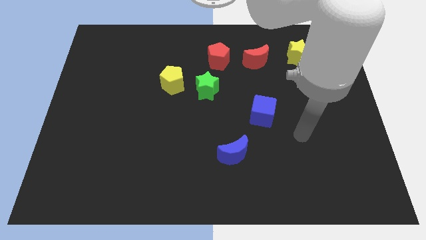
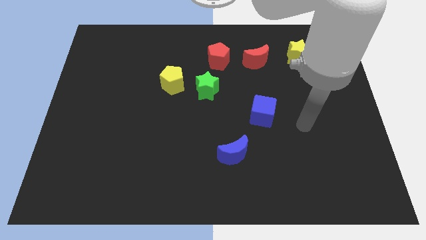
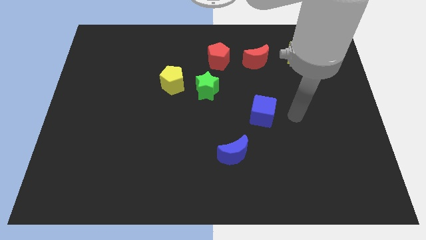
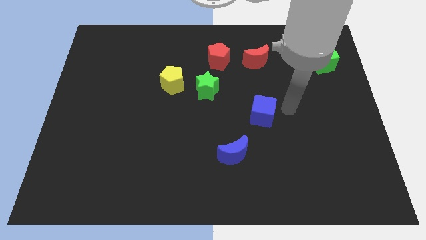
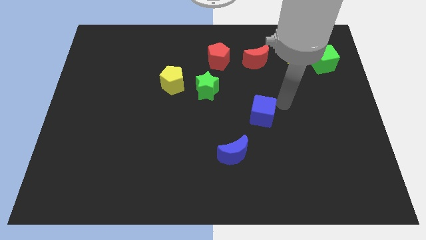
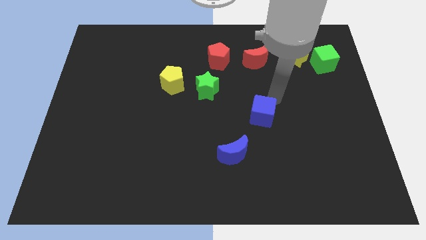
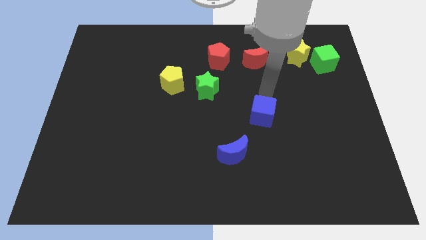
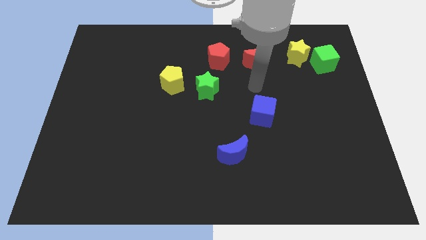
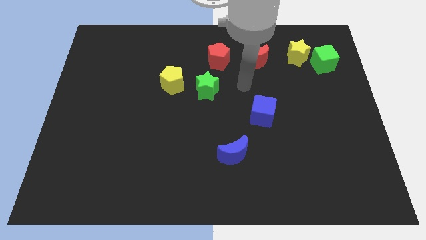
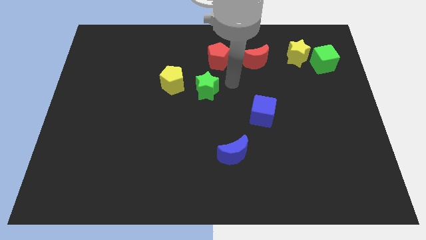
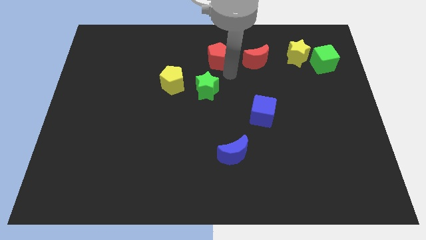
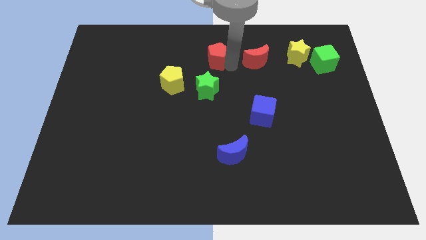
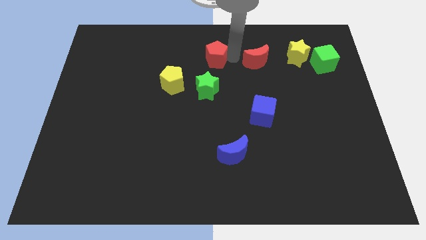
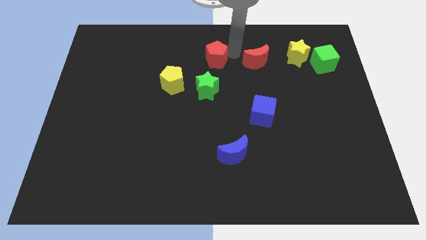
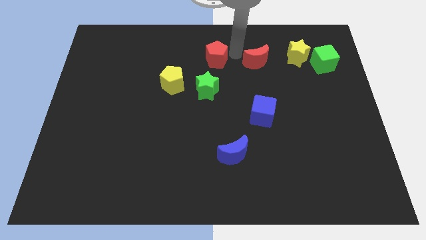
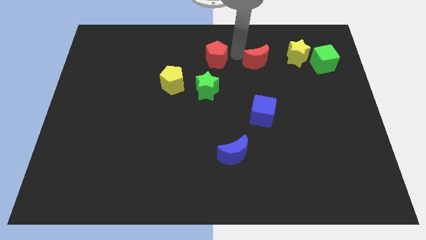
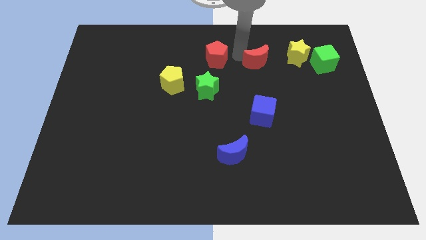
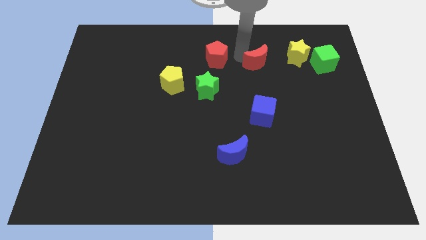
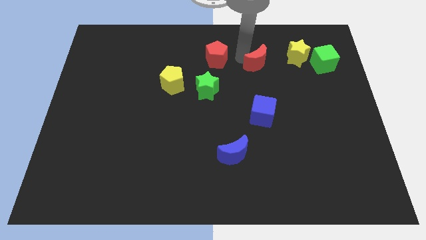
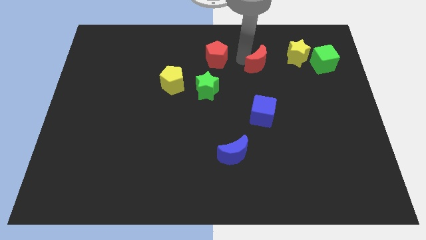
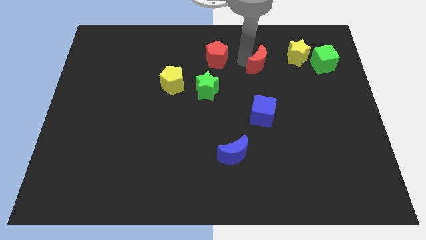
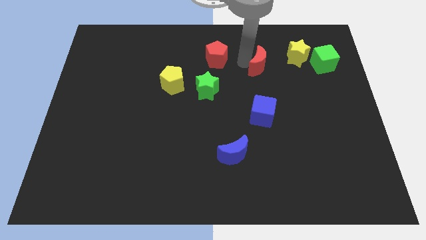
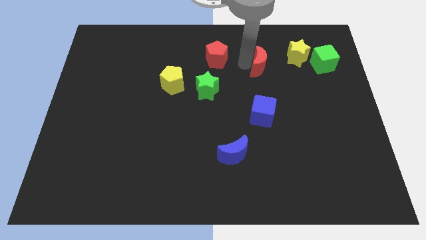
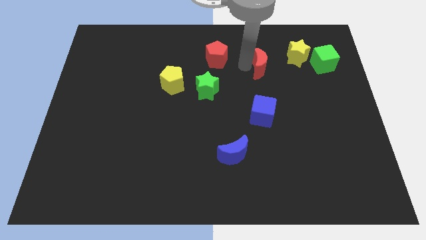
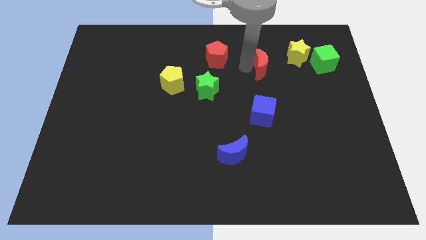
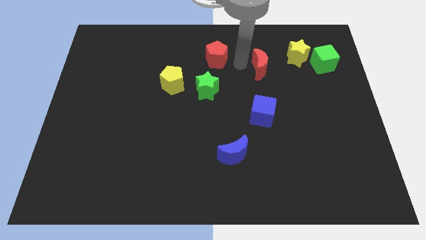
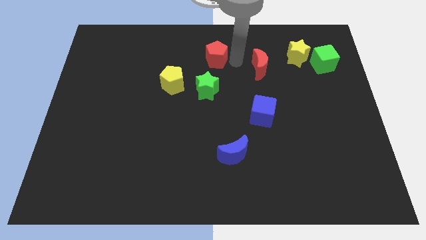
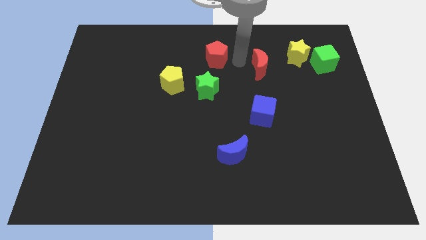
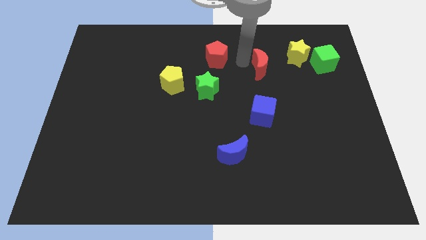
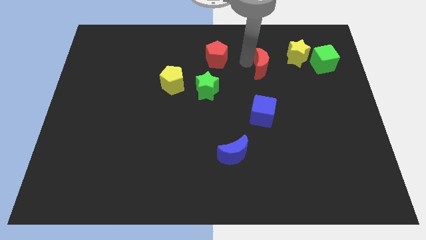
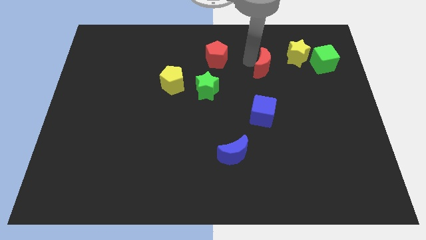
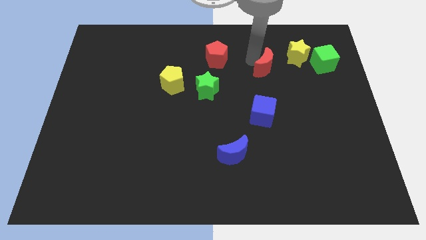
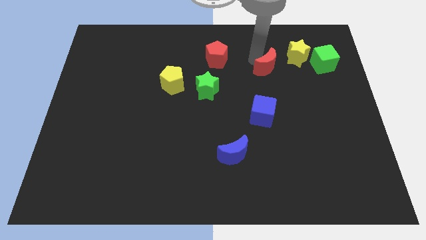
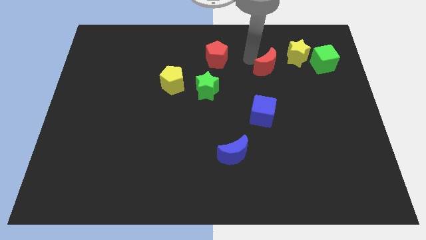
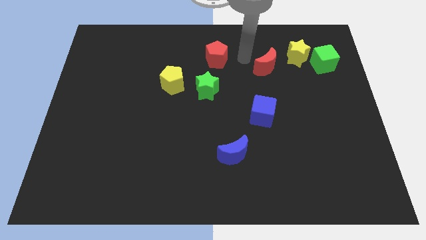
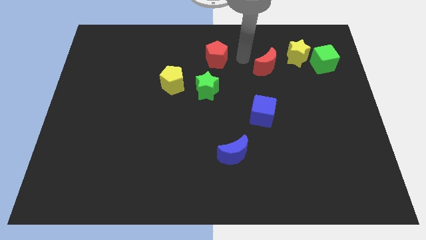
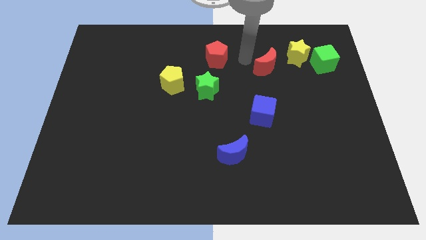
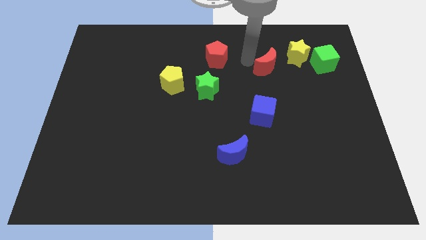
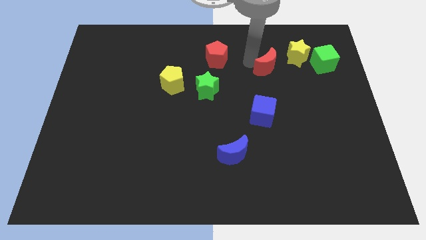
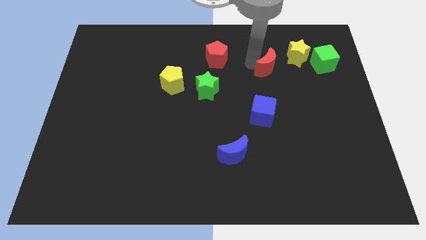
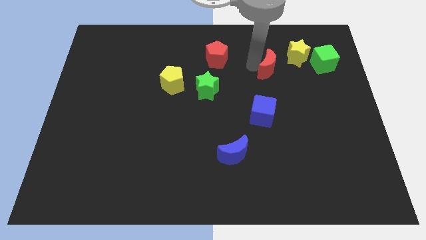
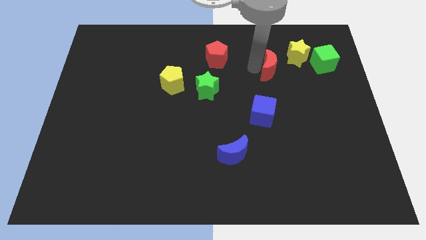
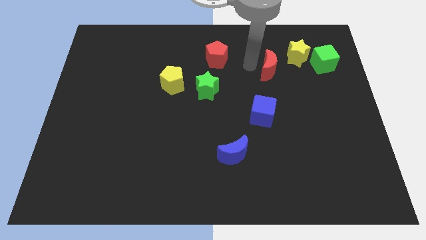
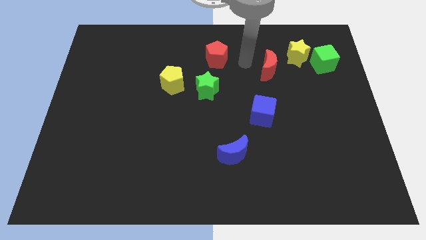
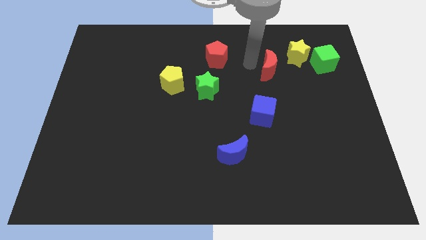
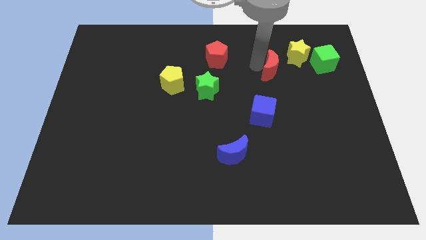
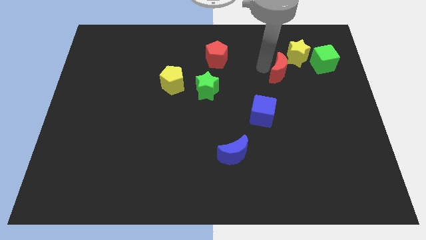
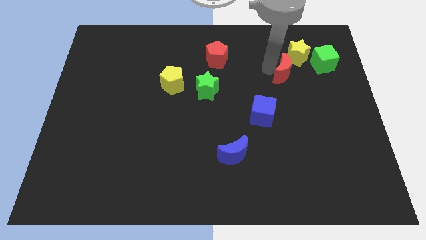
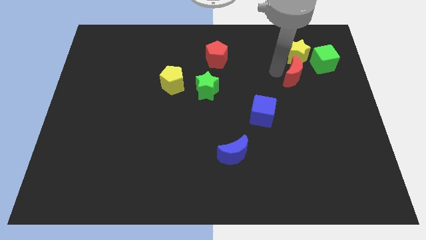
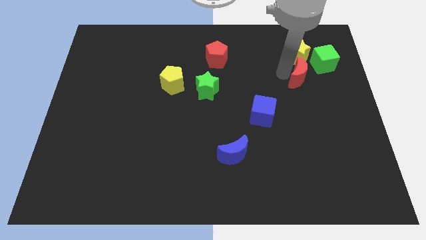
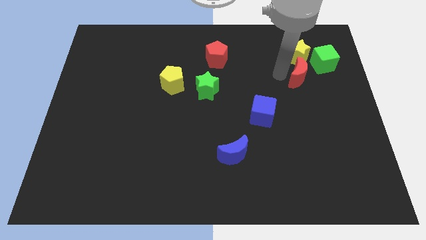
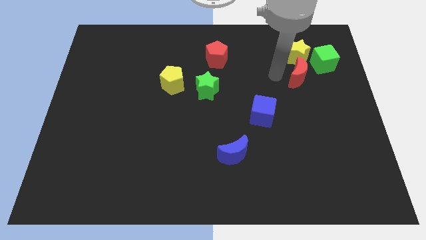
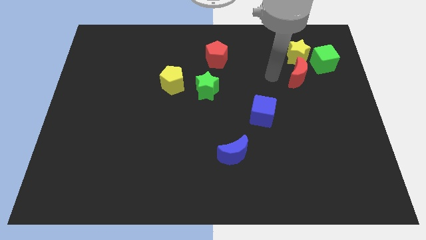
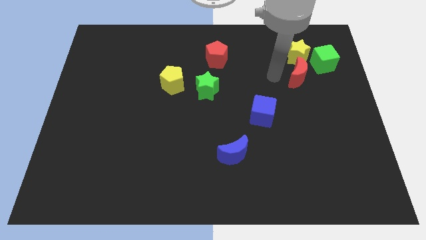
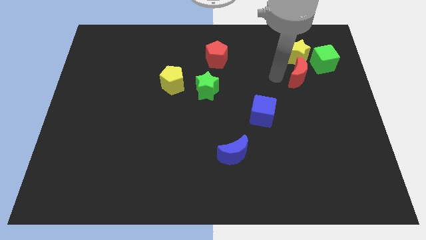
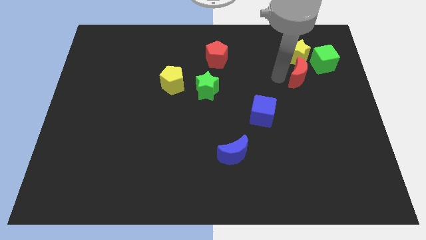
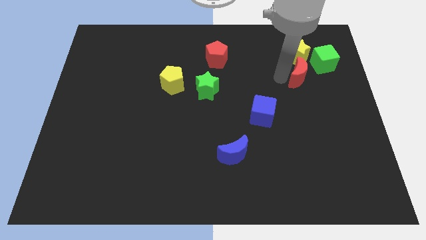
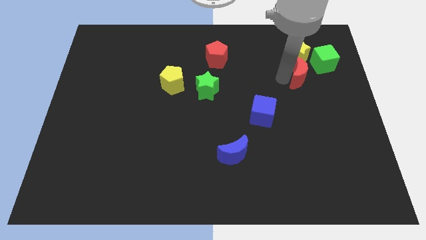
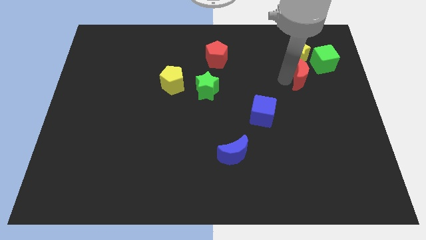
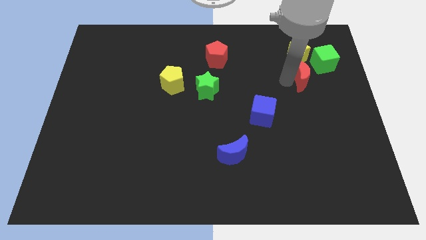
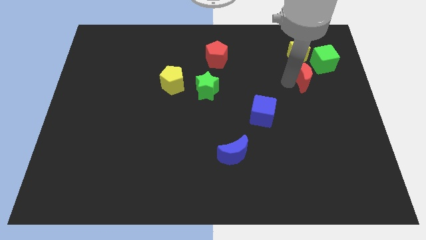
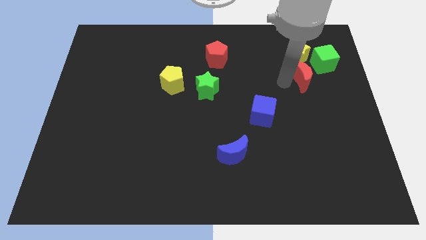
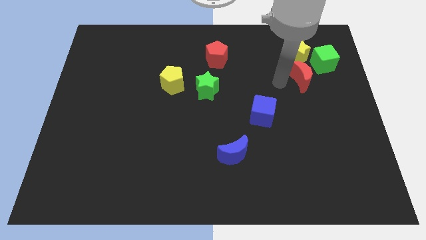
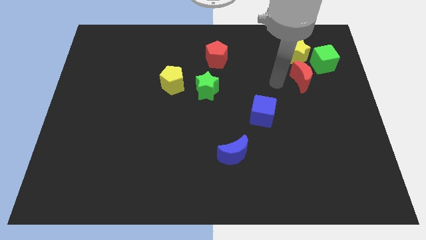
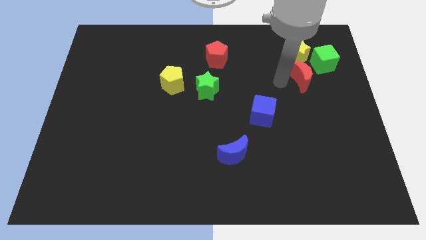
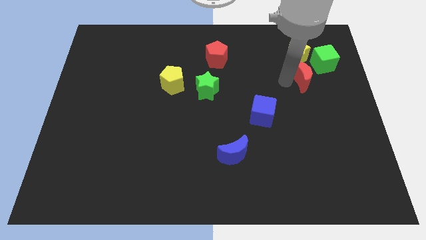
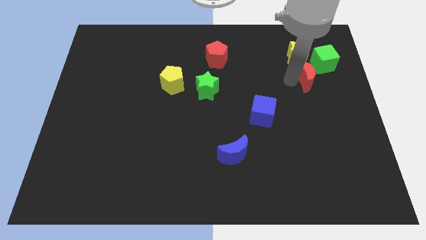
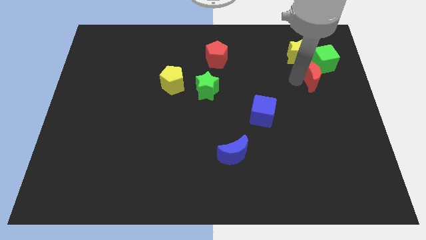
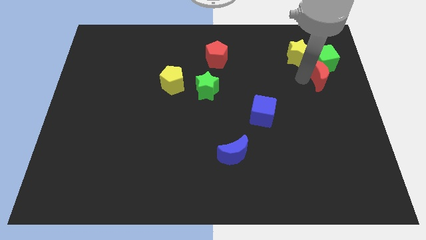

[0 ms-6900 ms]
put the red moon to the center right

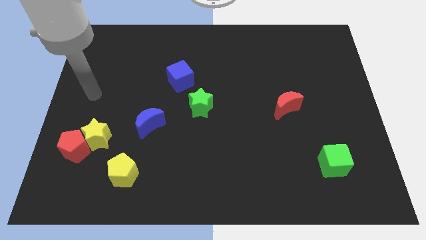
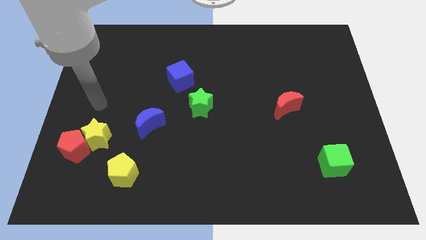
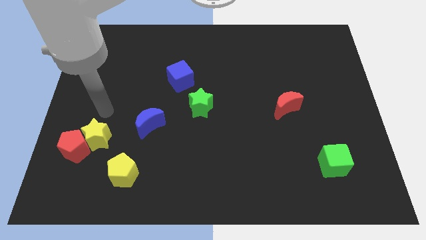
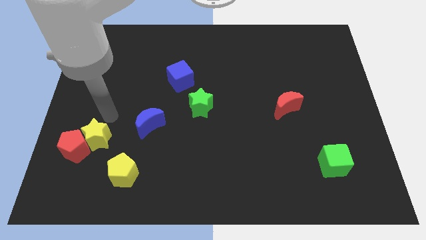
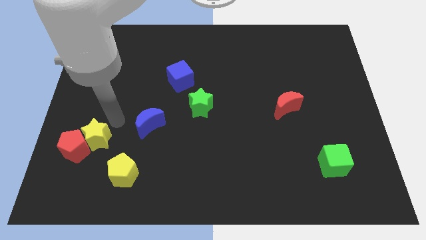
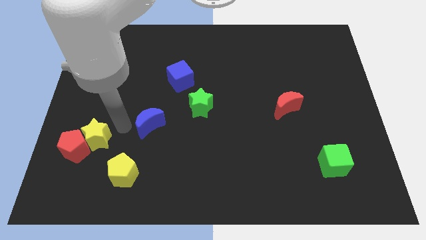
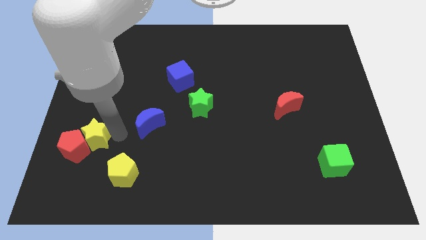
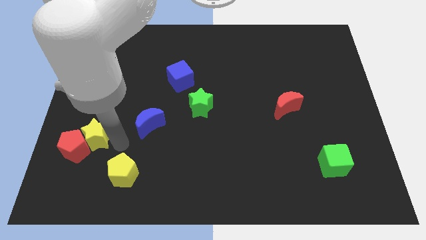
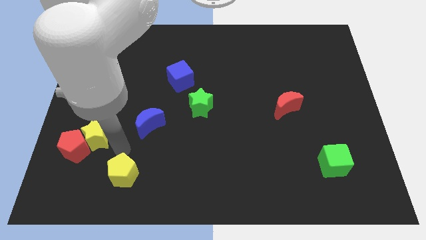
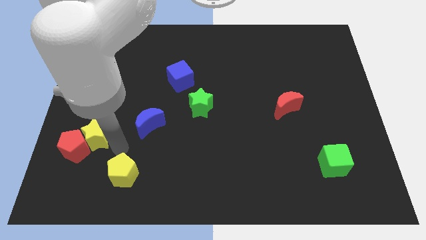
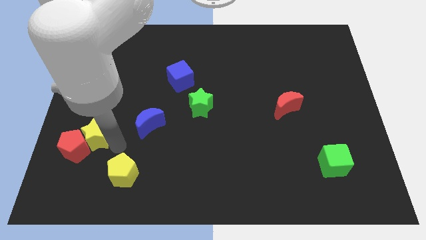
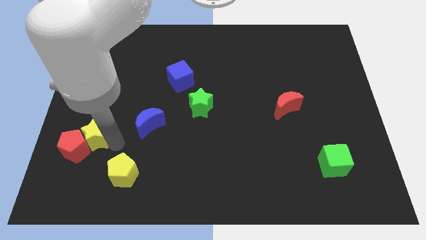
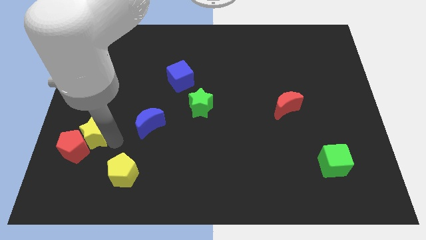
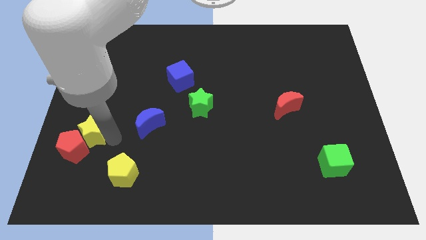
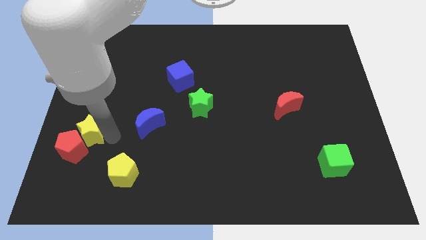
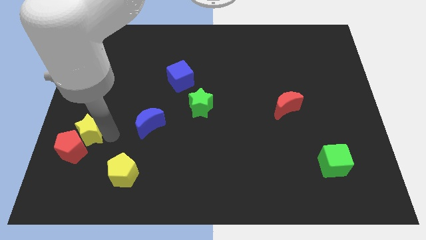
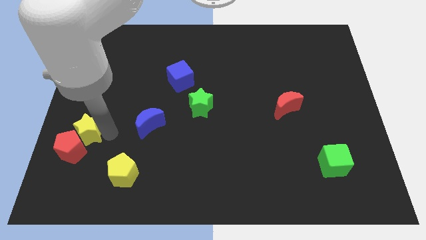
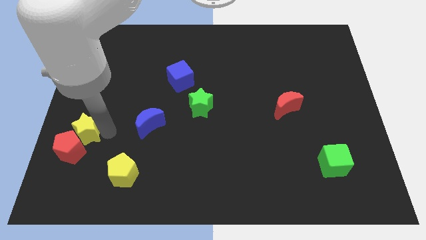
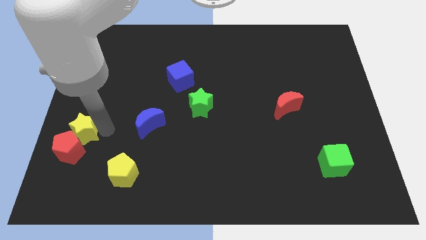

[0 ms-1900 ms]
put the yellow star to the left side of the board
